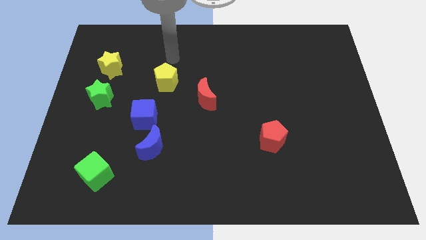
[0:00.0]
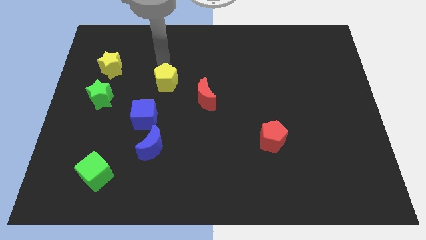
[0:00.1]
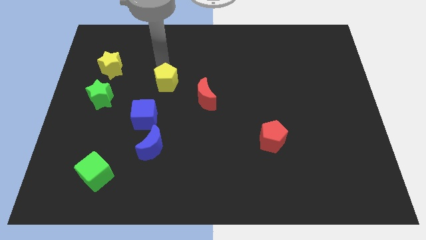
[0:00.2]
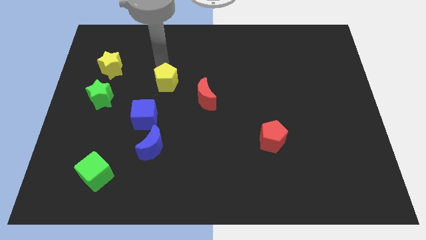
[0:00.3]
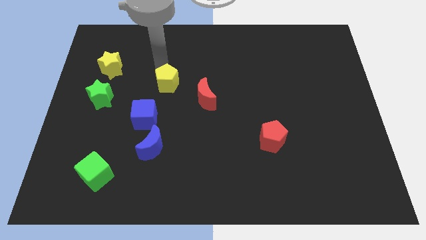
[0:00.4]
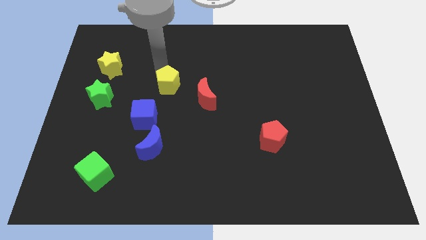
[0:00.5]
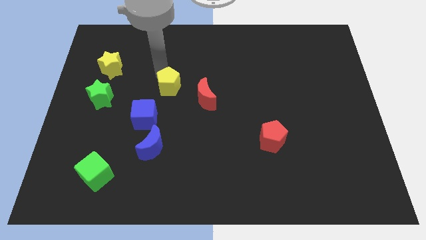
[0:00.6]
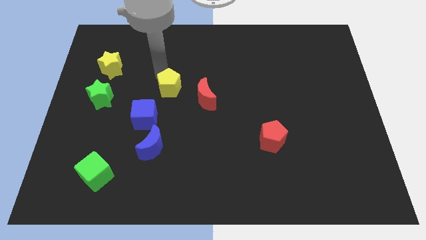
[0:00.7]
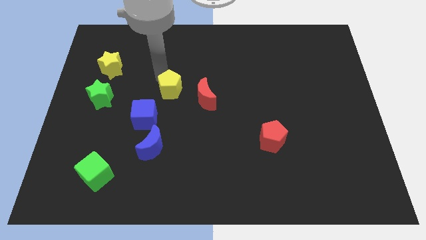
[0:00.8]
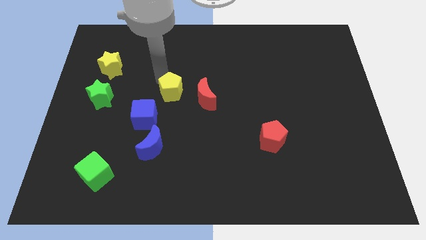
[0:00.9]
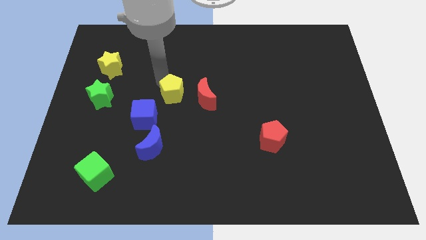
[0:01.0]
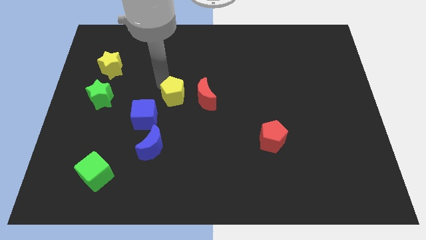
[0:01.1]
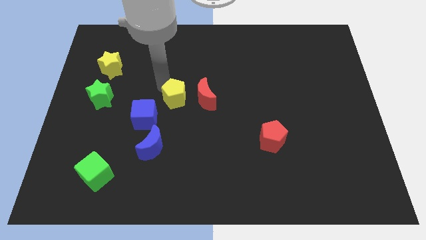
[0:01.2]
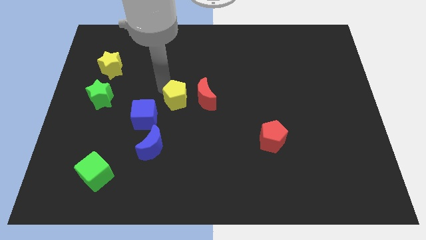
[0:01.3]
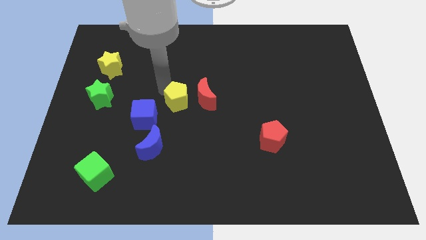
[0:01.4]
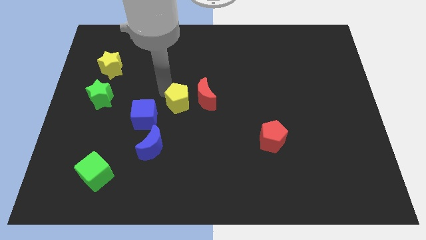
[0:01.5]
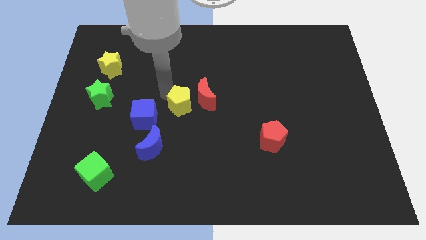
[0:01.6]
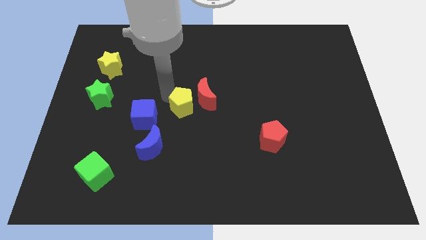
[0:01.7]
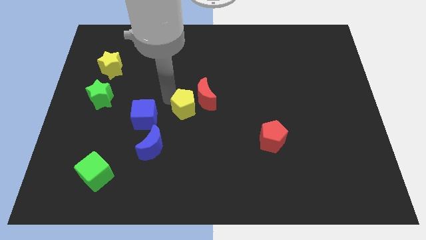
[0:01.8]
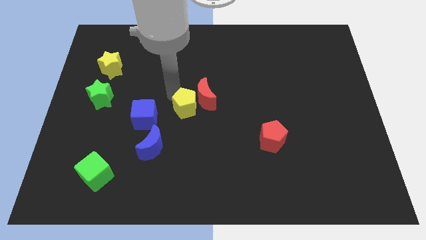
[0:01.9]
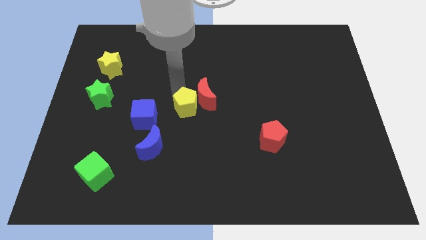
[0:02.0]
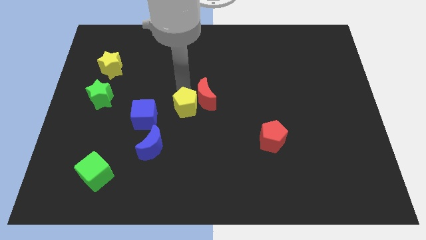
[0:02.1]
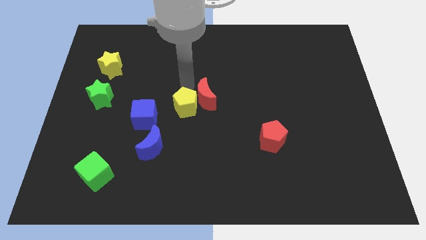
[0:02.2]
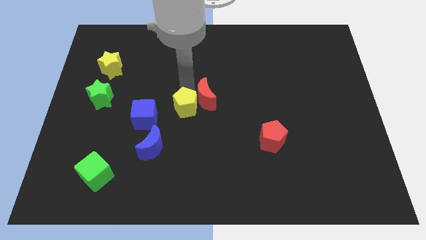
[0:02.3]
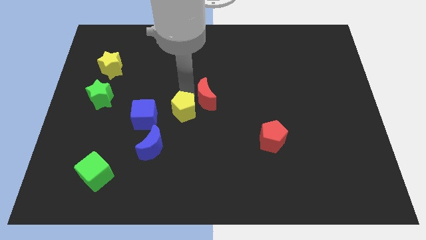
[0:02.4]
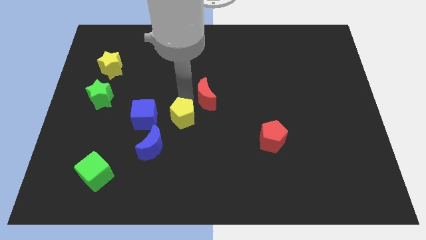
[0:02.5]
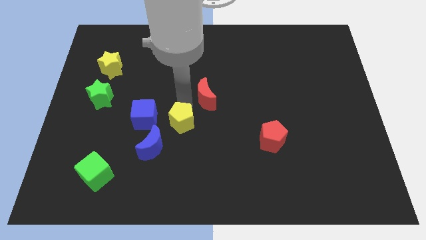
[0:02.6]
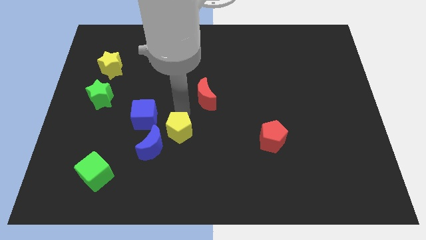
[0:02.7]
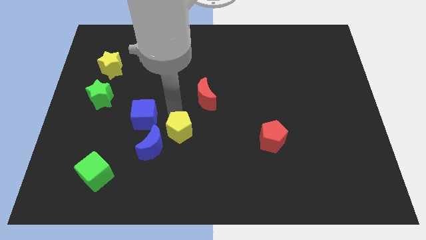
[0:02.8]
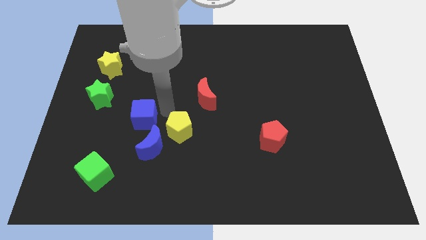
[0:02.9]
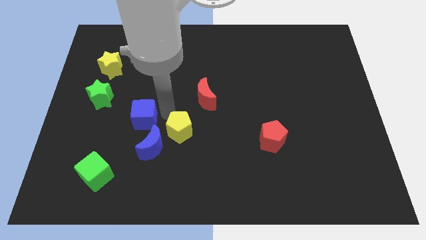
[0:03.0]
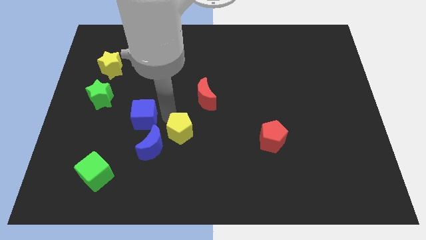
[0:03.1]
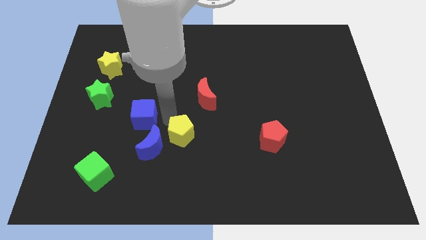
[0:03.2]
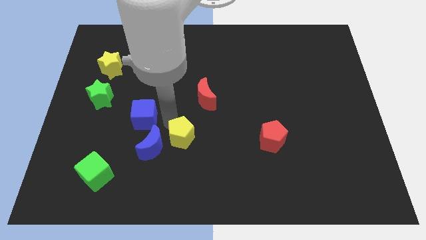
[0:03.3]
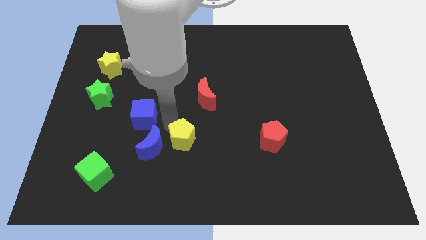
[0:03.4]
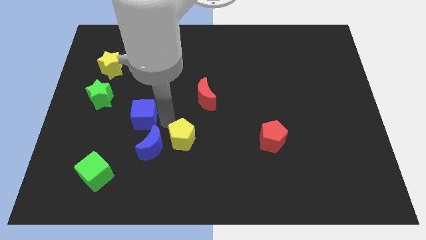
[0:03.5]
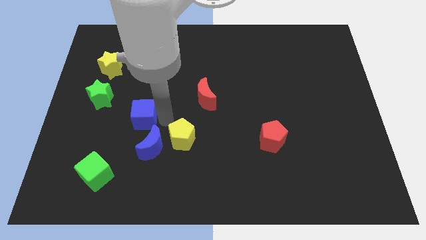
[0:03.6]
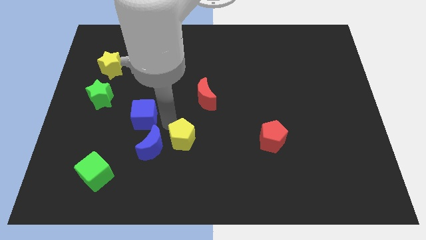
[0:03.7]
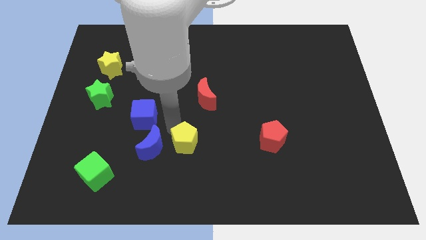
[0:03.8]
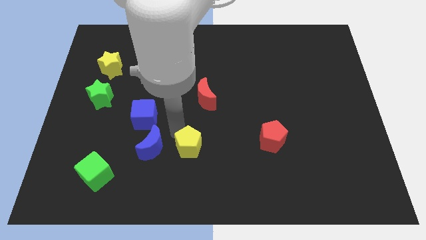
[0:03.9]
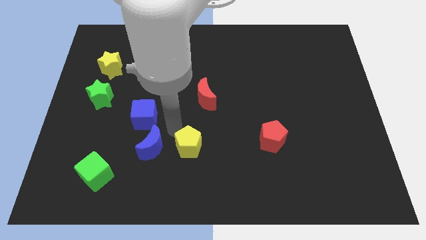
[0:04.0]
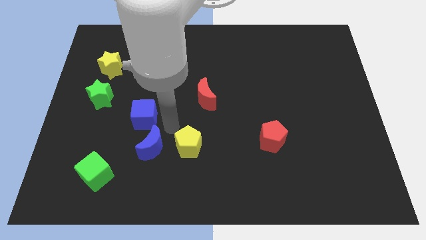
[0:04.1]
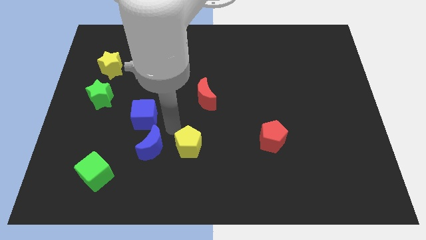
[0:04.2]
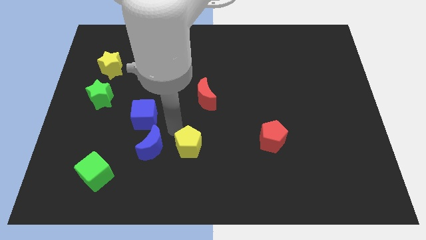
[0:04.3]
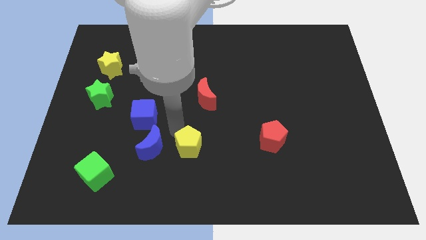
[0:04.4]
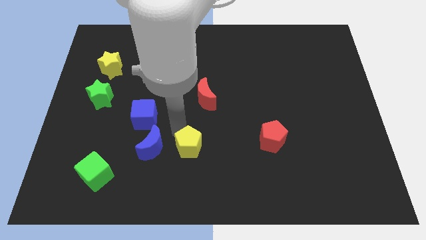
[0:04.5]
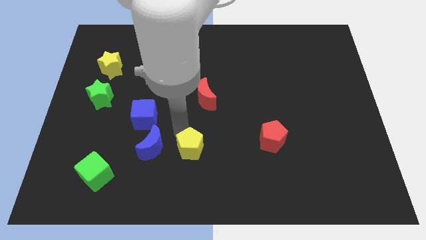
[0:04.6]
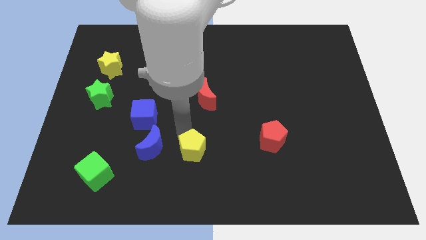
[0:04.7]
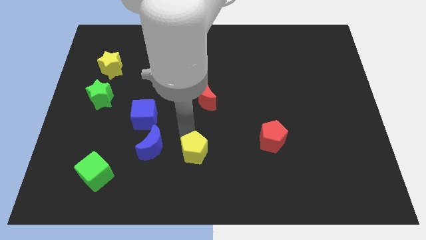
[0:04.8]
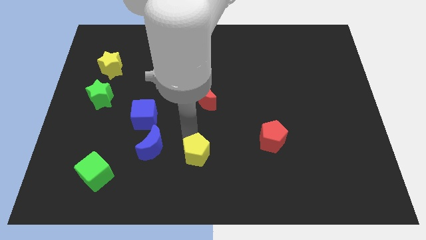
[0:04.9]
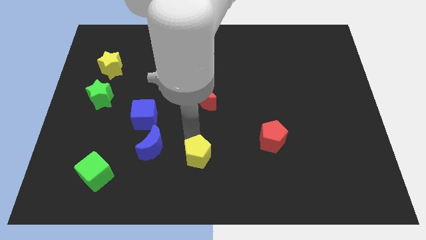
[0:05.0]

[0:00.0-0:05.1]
slide the yellow pentagon to the bottom

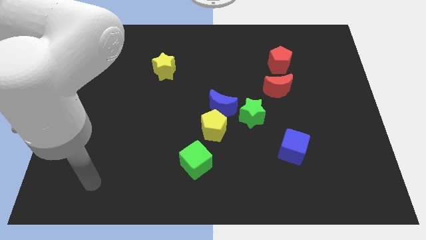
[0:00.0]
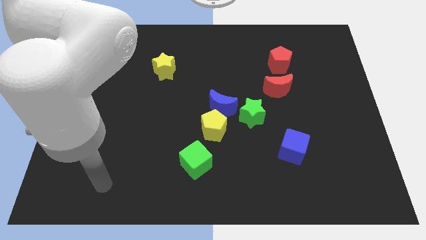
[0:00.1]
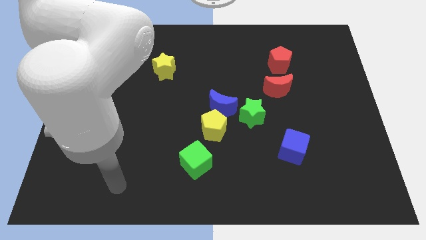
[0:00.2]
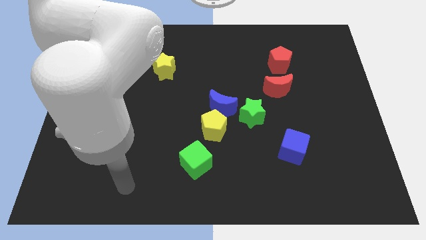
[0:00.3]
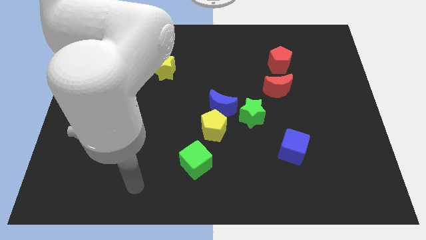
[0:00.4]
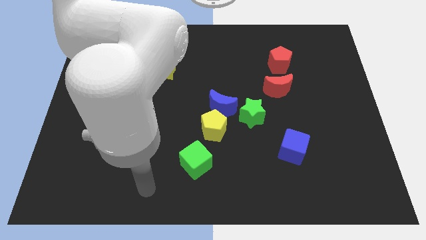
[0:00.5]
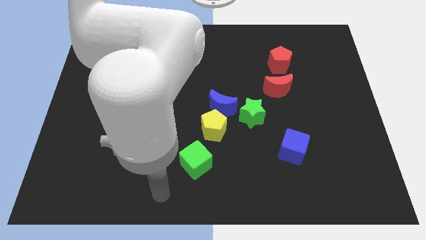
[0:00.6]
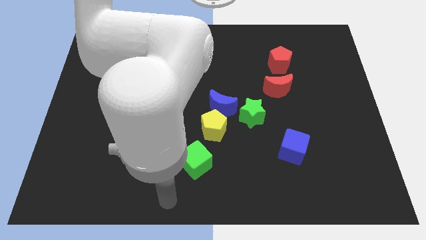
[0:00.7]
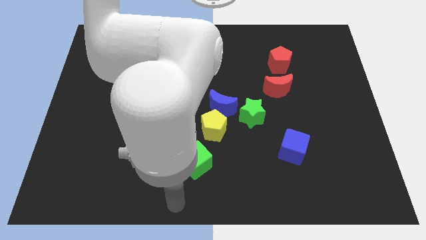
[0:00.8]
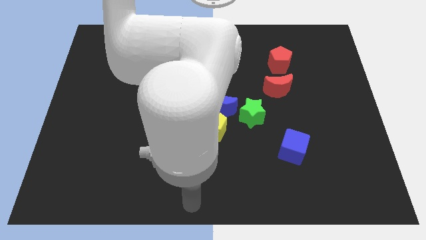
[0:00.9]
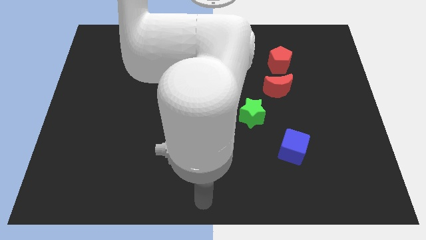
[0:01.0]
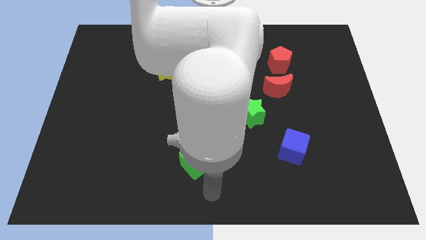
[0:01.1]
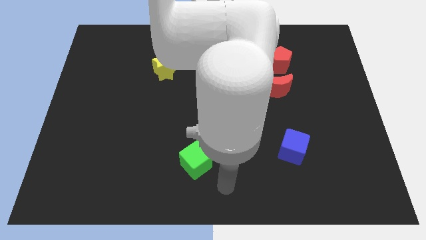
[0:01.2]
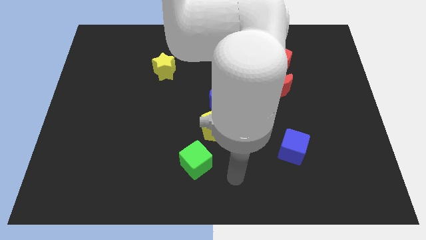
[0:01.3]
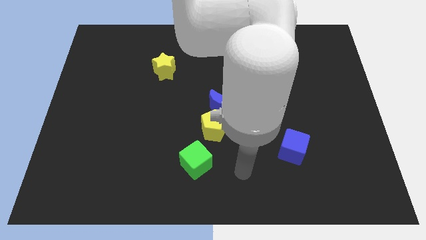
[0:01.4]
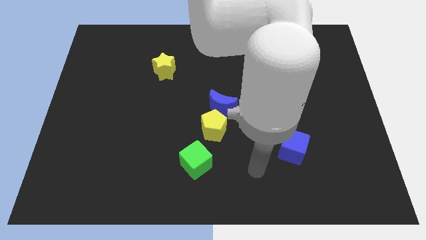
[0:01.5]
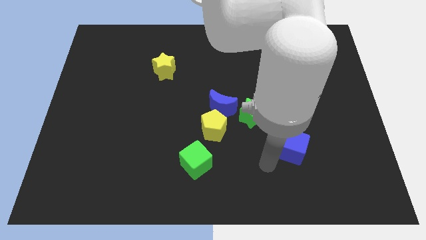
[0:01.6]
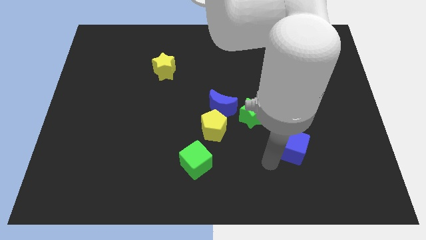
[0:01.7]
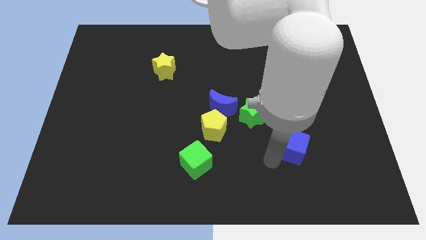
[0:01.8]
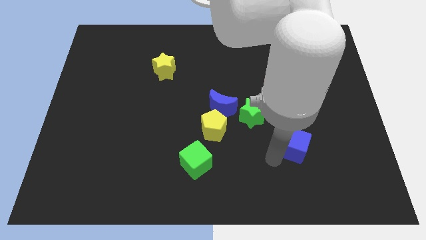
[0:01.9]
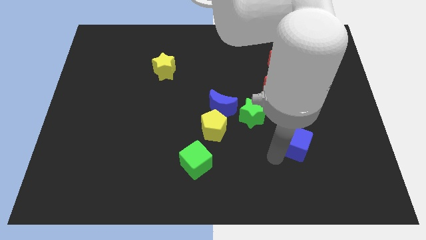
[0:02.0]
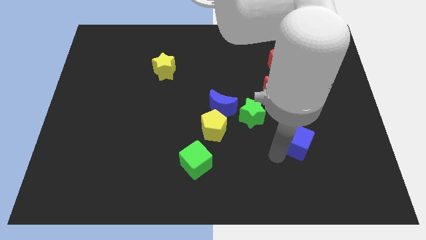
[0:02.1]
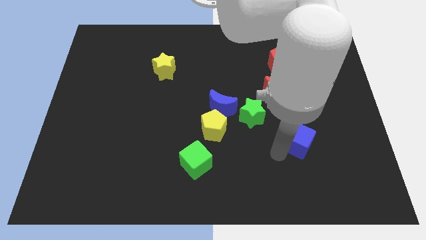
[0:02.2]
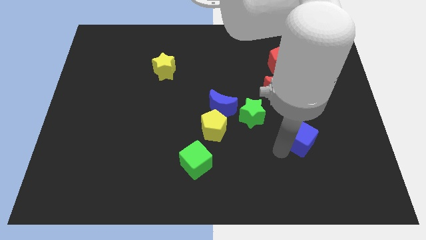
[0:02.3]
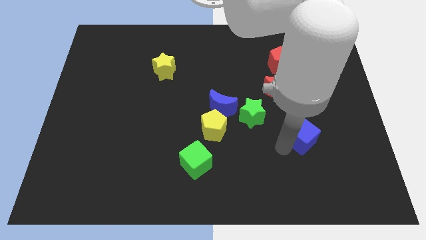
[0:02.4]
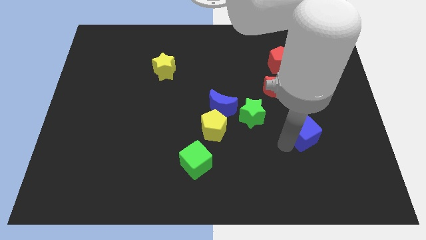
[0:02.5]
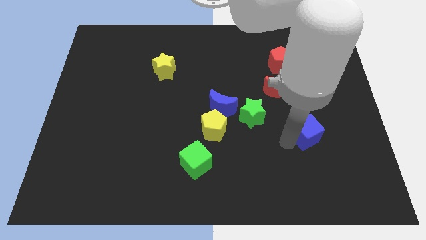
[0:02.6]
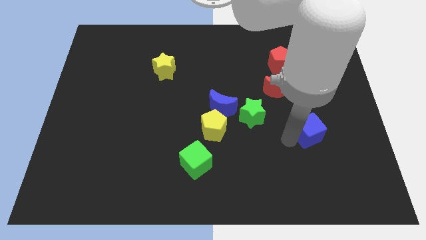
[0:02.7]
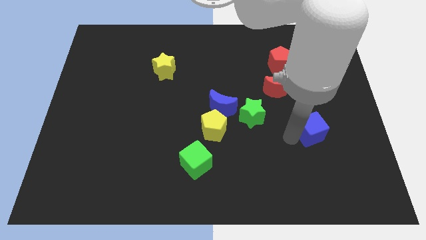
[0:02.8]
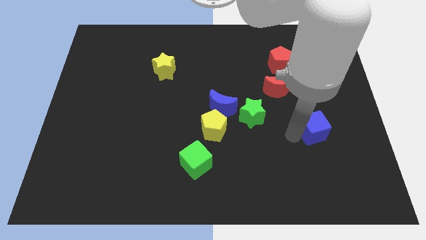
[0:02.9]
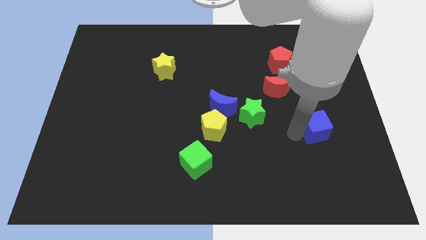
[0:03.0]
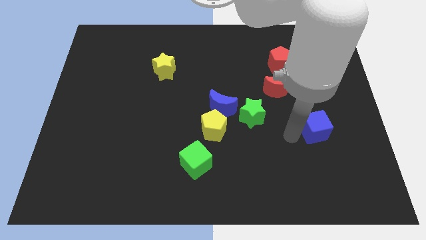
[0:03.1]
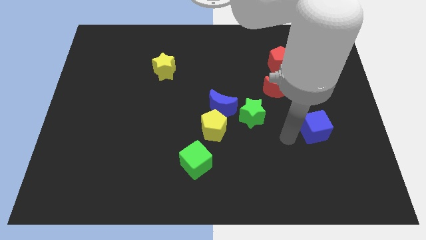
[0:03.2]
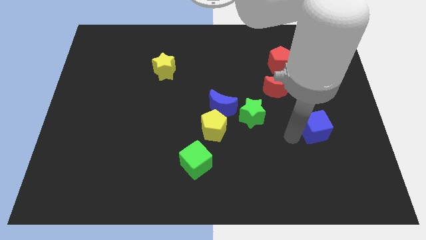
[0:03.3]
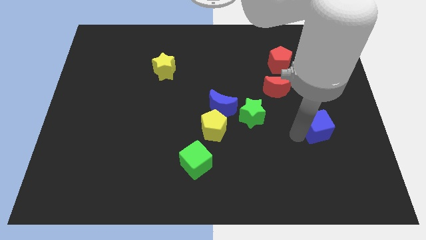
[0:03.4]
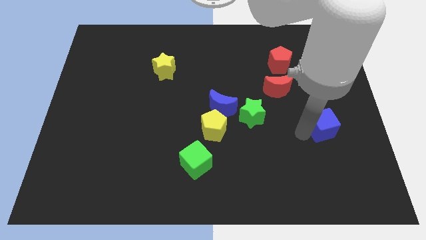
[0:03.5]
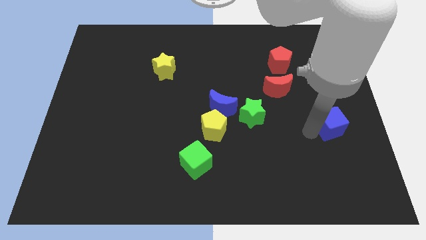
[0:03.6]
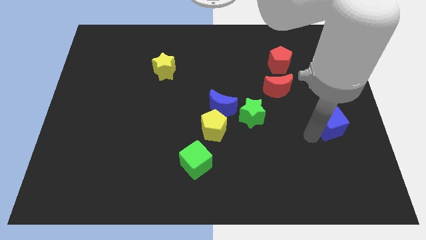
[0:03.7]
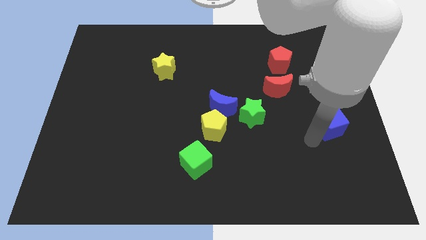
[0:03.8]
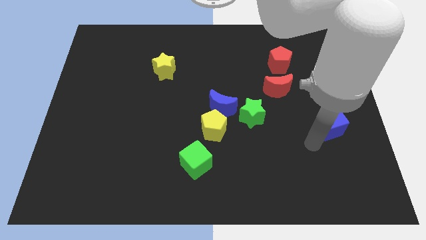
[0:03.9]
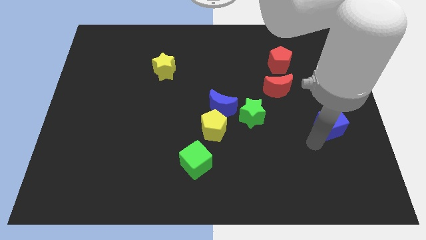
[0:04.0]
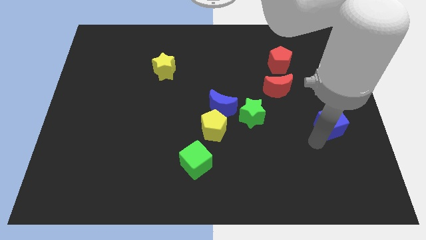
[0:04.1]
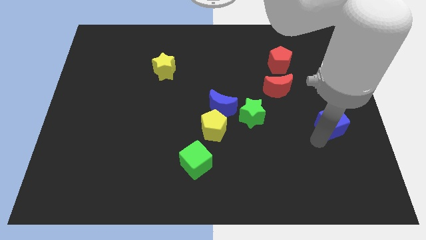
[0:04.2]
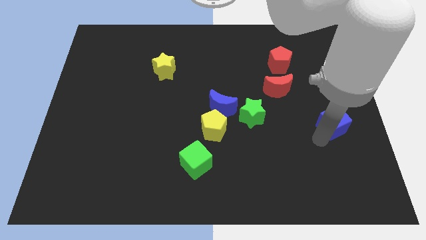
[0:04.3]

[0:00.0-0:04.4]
move the blue cube to the right side of the board
